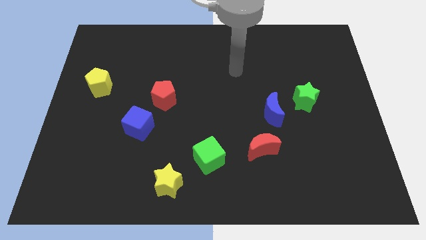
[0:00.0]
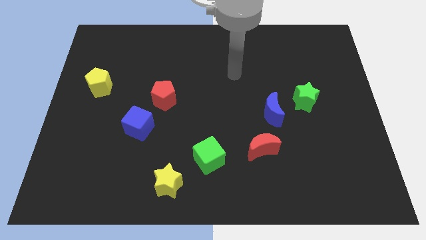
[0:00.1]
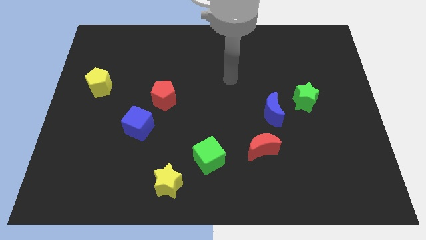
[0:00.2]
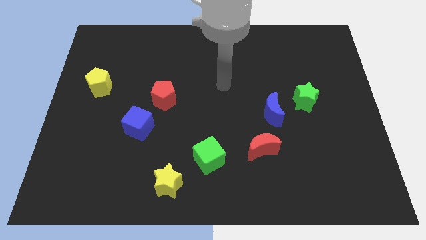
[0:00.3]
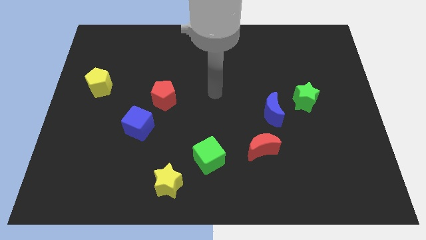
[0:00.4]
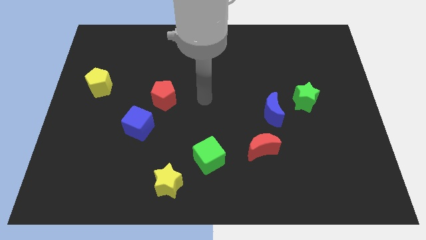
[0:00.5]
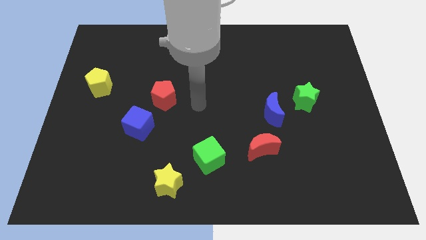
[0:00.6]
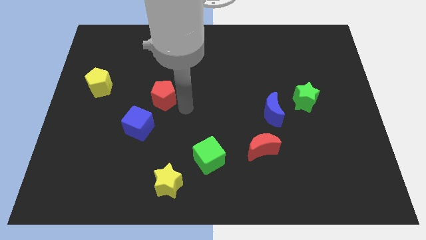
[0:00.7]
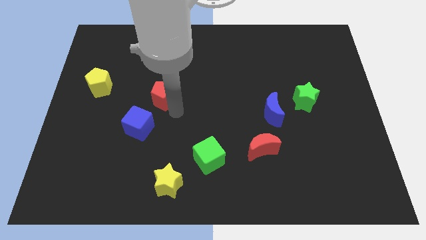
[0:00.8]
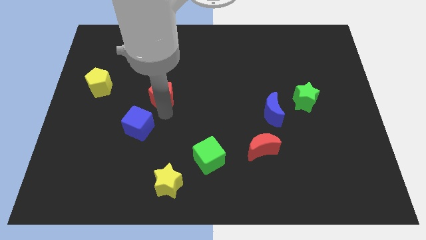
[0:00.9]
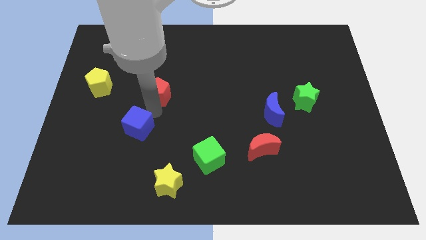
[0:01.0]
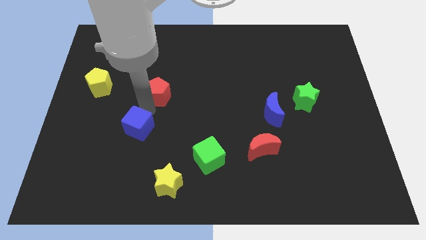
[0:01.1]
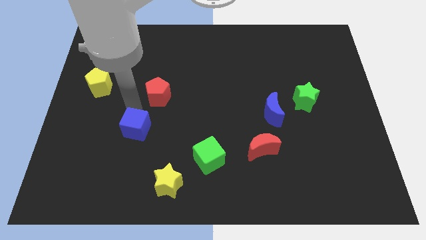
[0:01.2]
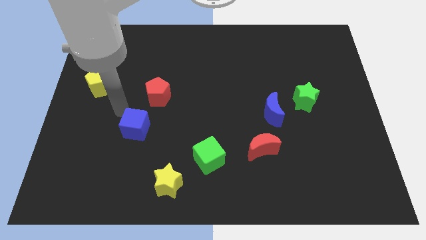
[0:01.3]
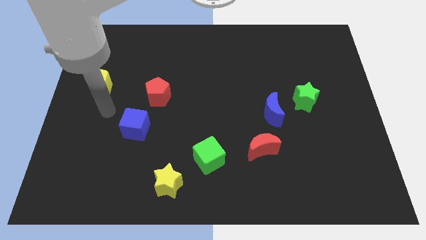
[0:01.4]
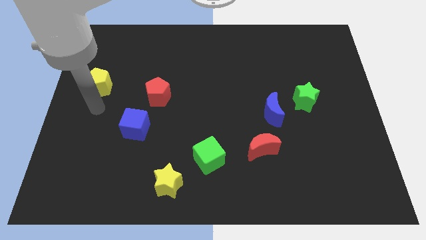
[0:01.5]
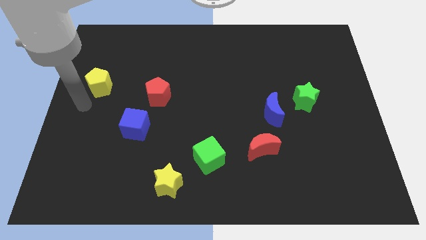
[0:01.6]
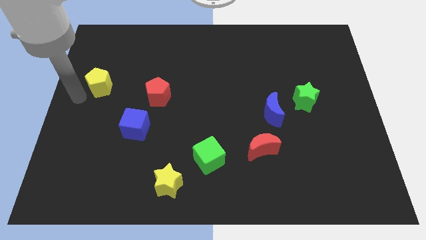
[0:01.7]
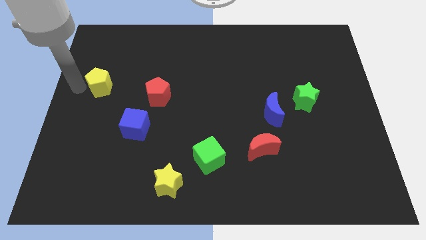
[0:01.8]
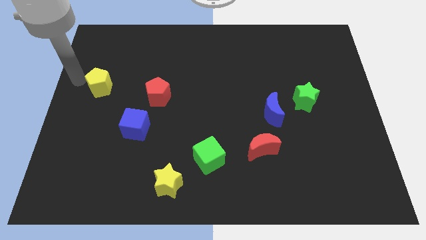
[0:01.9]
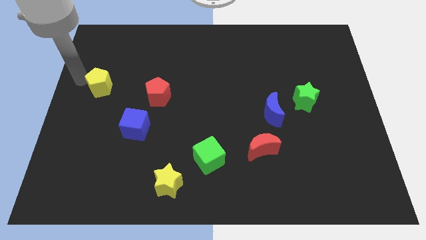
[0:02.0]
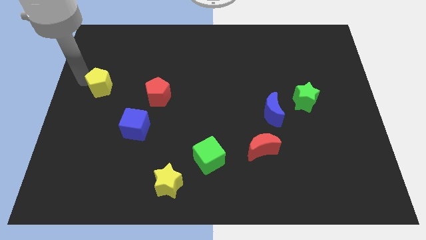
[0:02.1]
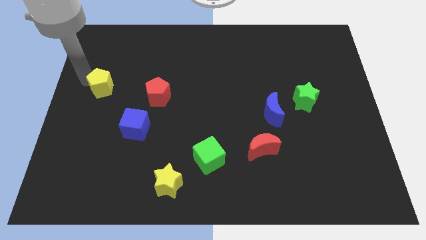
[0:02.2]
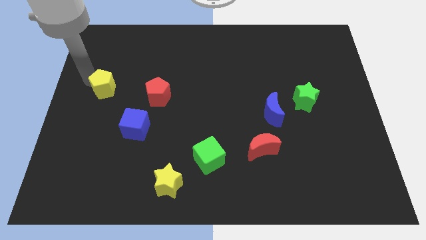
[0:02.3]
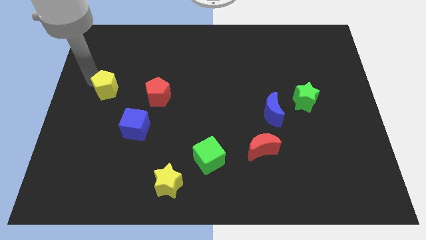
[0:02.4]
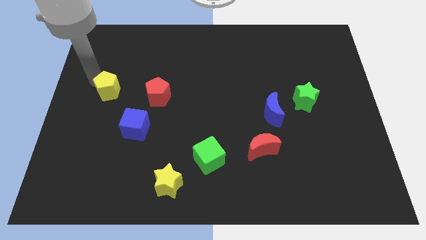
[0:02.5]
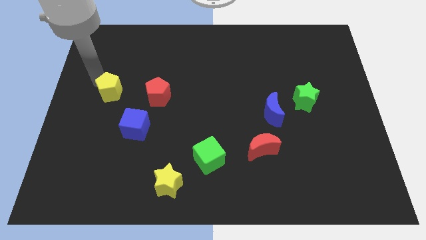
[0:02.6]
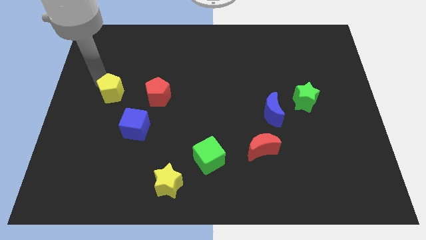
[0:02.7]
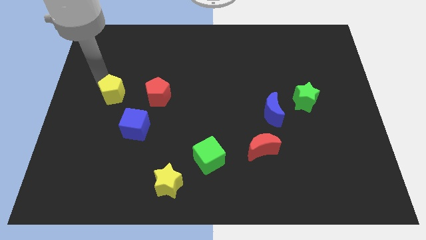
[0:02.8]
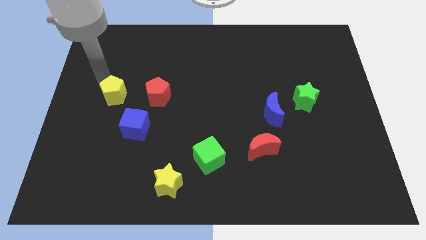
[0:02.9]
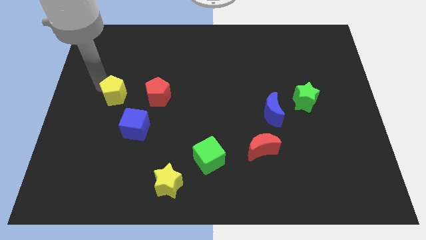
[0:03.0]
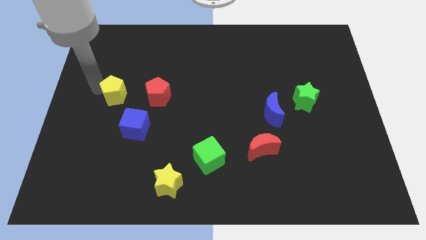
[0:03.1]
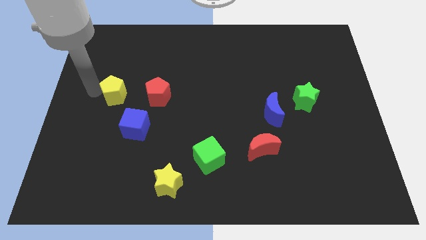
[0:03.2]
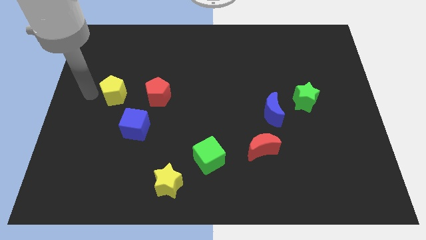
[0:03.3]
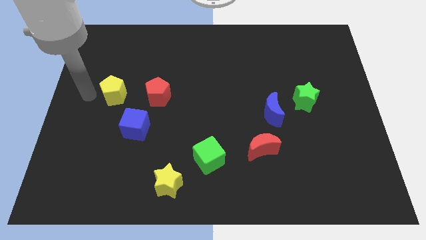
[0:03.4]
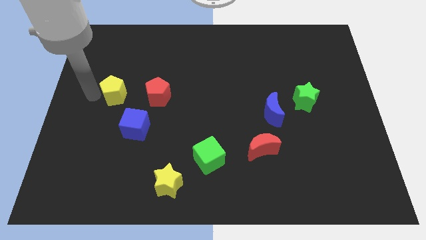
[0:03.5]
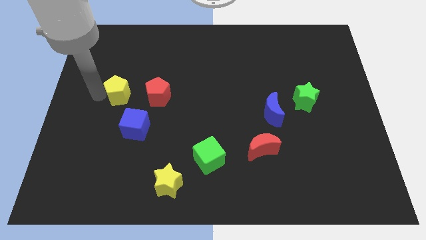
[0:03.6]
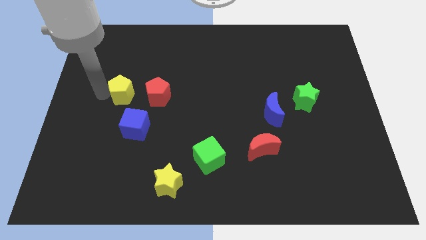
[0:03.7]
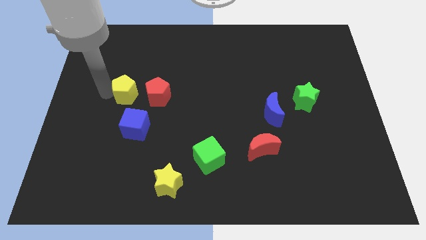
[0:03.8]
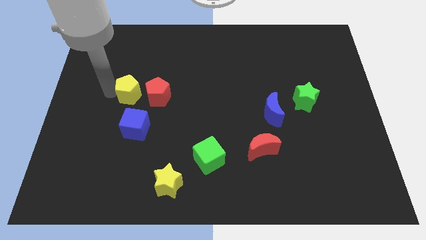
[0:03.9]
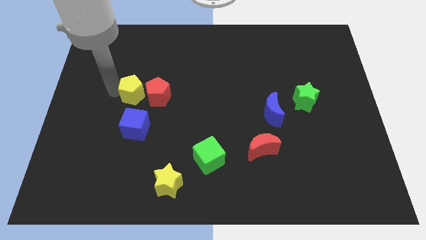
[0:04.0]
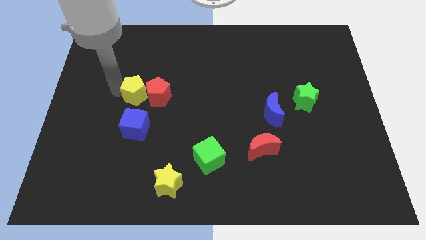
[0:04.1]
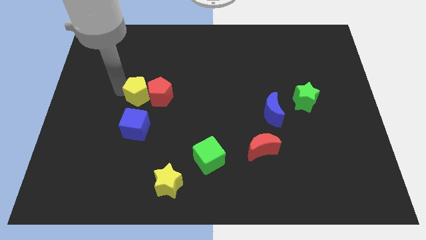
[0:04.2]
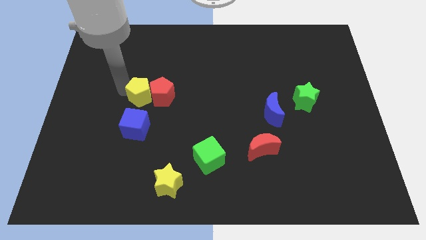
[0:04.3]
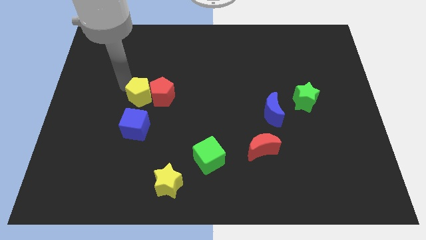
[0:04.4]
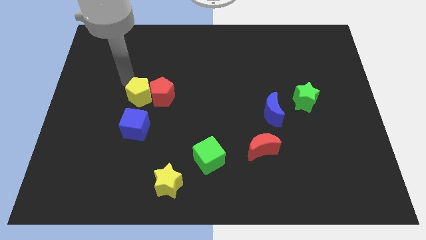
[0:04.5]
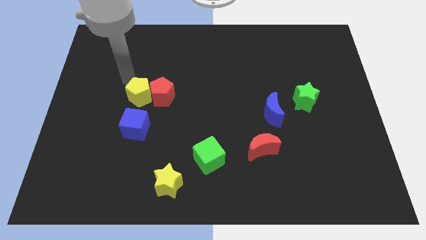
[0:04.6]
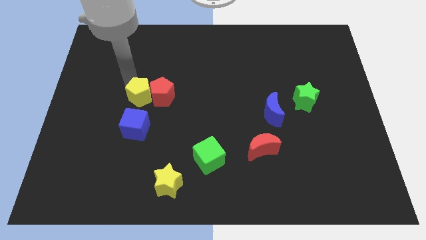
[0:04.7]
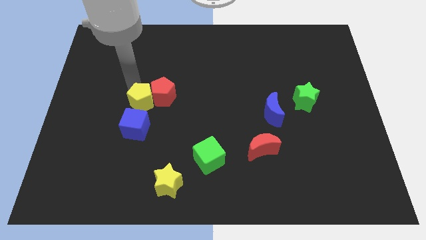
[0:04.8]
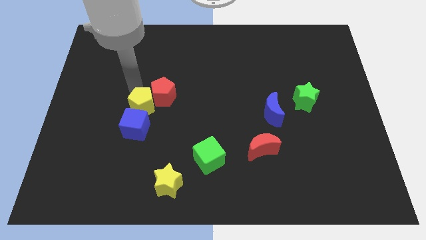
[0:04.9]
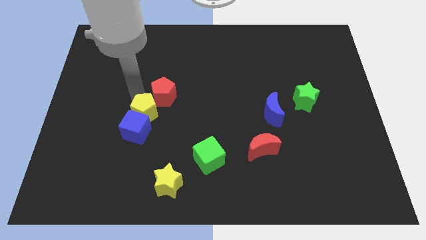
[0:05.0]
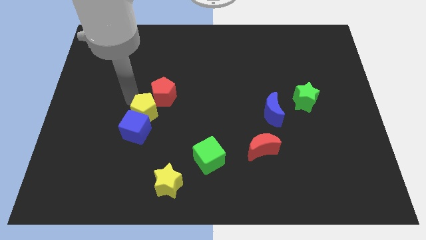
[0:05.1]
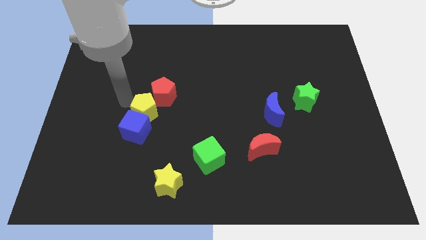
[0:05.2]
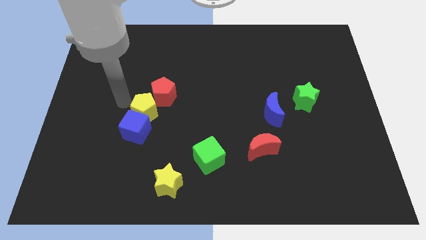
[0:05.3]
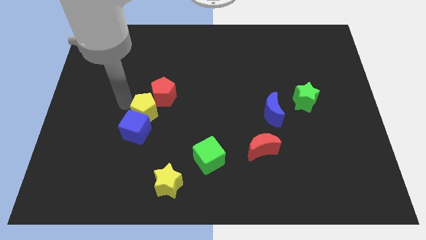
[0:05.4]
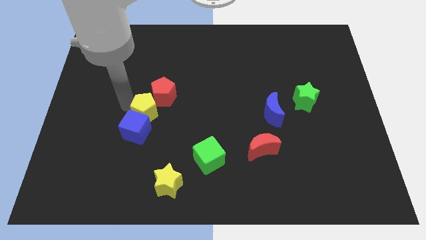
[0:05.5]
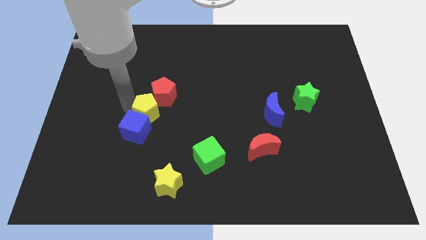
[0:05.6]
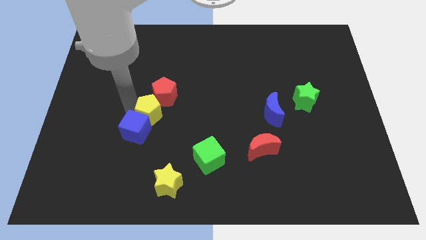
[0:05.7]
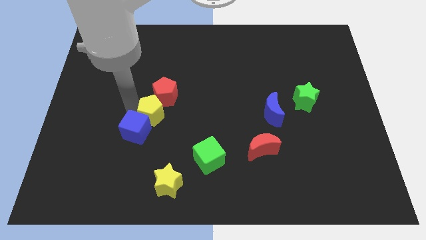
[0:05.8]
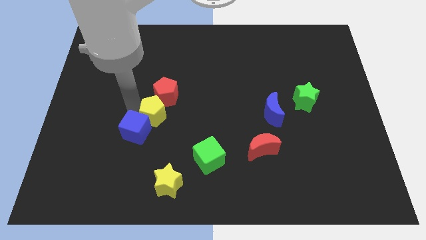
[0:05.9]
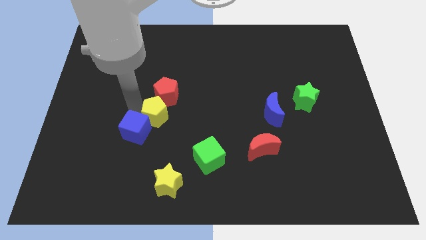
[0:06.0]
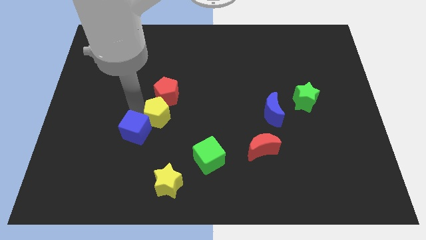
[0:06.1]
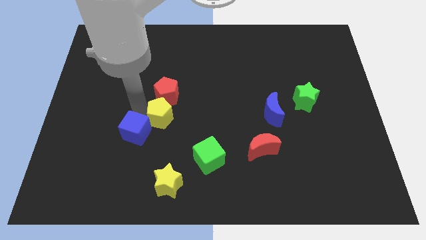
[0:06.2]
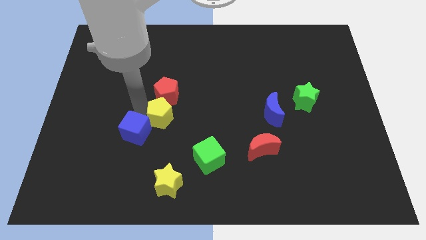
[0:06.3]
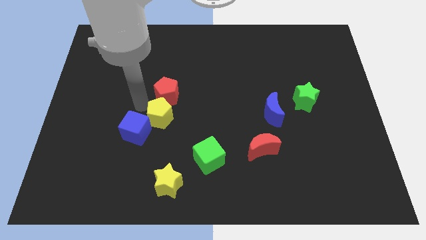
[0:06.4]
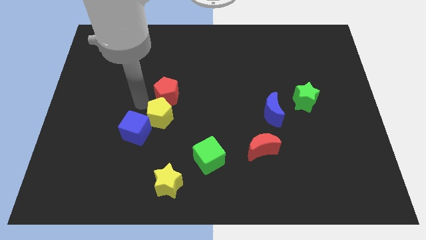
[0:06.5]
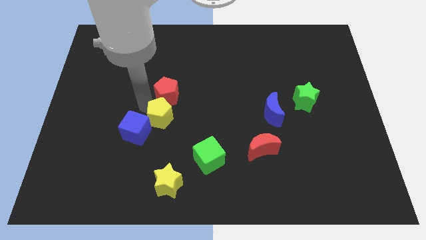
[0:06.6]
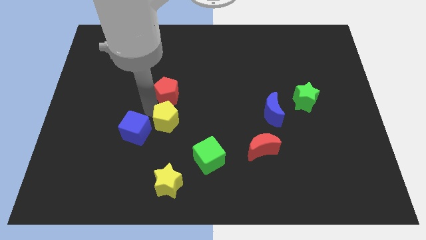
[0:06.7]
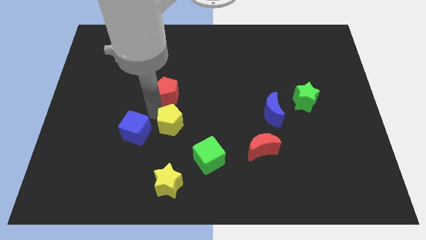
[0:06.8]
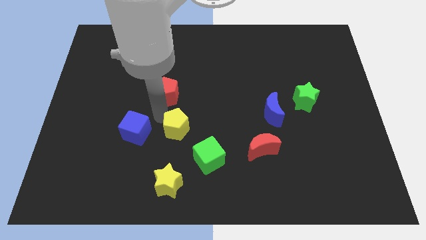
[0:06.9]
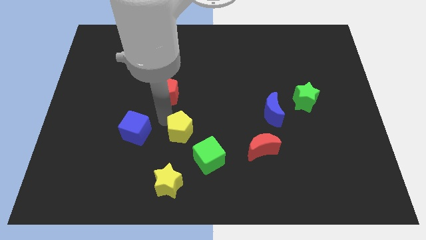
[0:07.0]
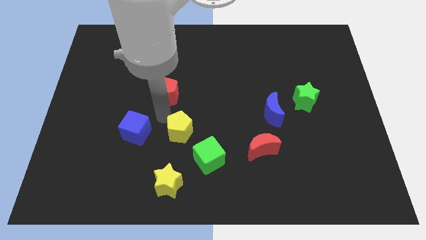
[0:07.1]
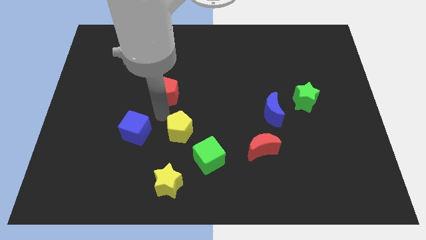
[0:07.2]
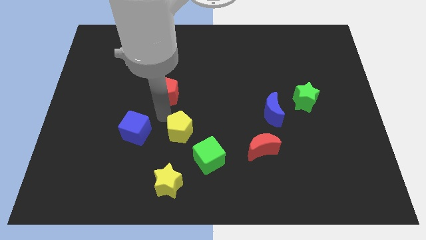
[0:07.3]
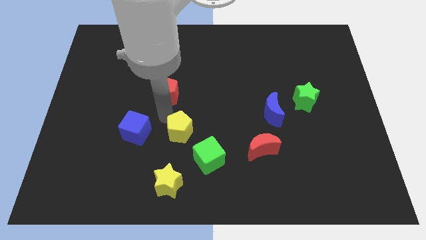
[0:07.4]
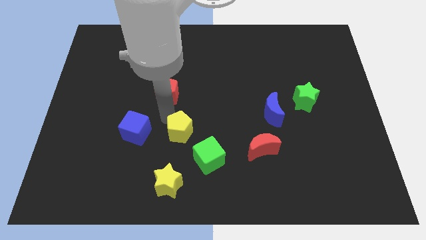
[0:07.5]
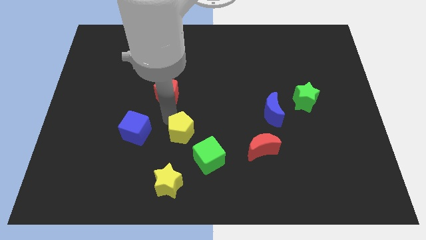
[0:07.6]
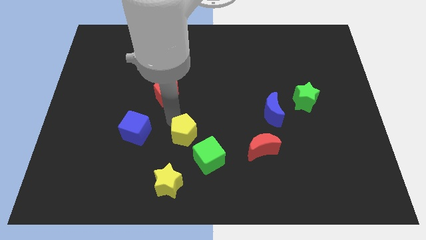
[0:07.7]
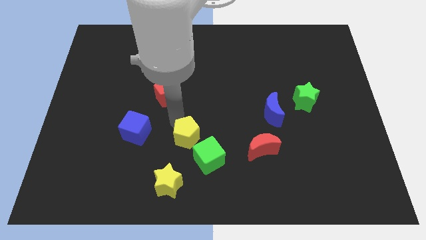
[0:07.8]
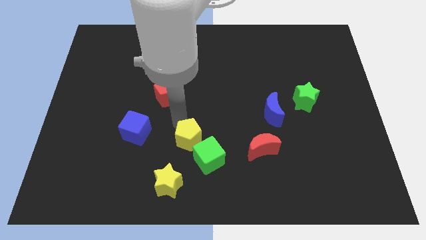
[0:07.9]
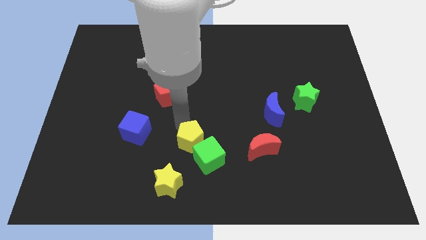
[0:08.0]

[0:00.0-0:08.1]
slide the yellow pentagon to the green cube
